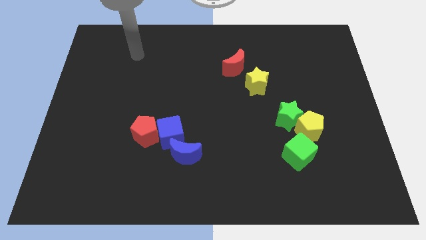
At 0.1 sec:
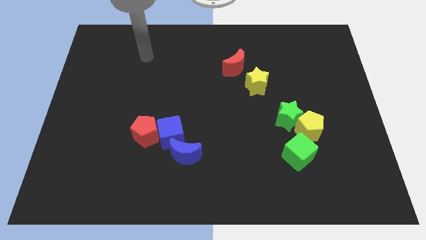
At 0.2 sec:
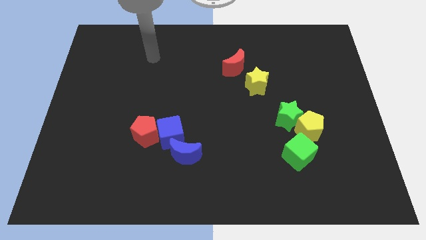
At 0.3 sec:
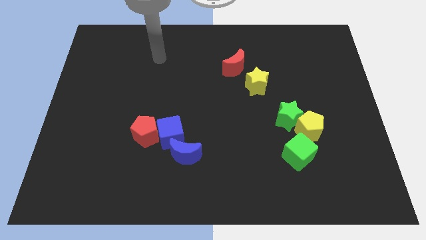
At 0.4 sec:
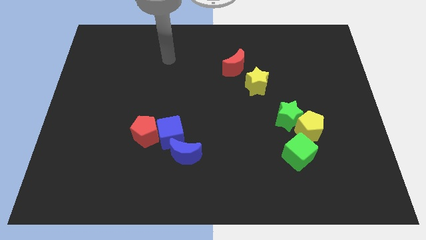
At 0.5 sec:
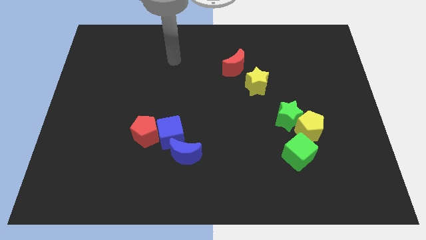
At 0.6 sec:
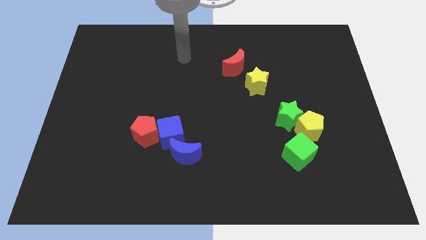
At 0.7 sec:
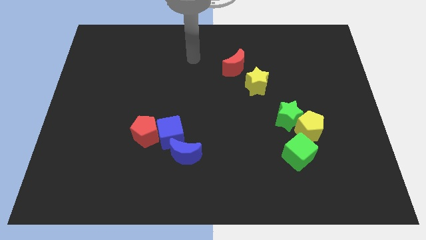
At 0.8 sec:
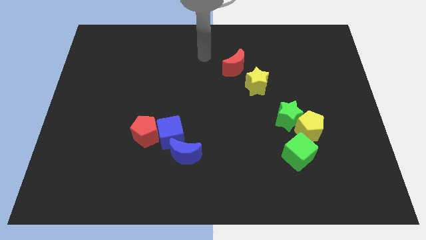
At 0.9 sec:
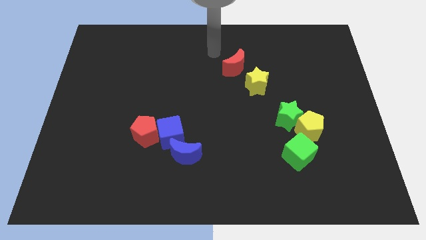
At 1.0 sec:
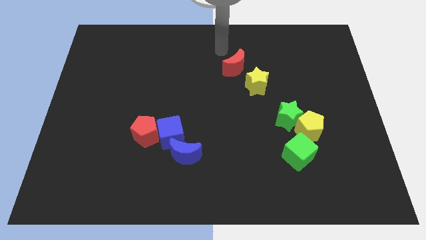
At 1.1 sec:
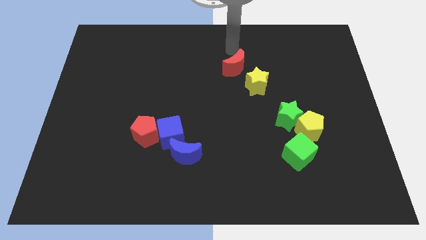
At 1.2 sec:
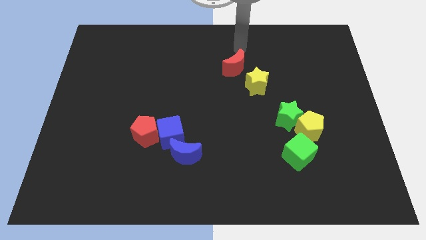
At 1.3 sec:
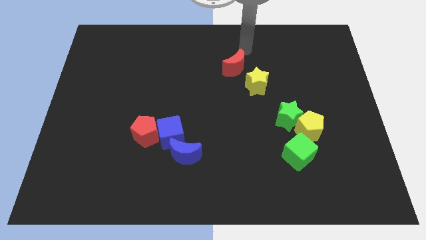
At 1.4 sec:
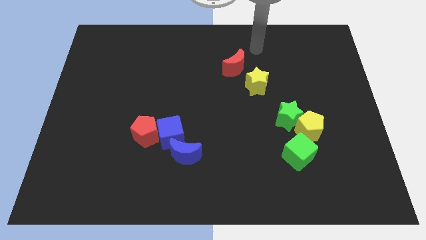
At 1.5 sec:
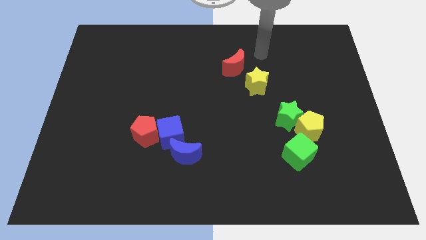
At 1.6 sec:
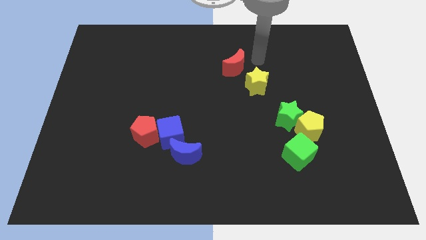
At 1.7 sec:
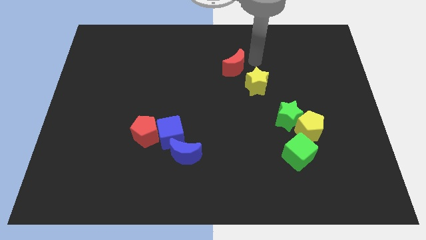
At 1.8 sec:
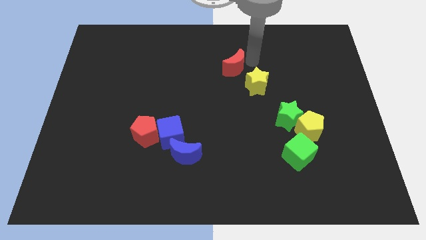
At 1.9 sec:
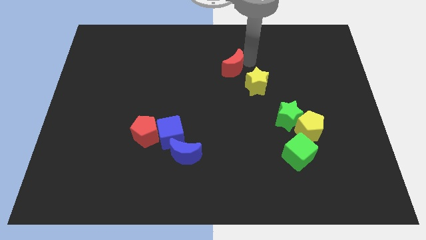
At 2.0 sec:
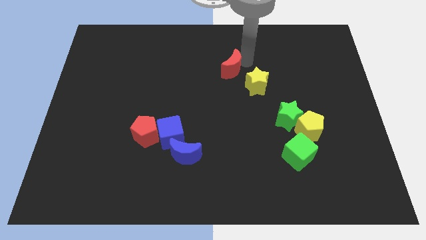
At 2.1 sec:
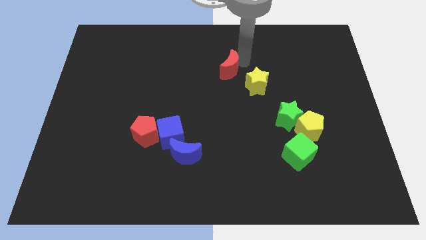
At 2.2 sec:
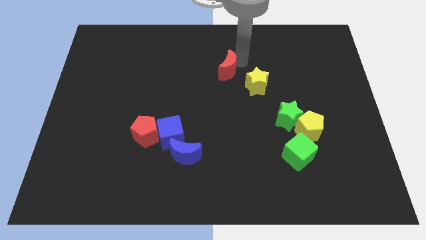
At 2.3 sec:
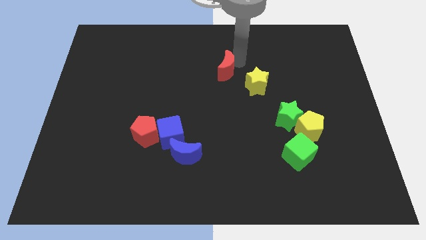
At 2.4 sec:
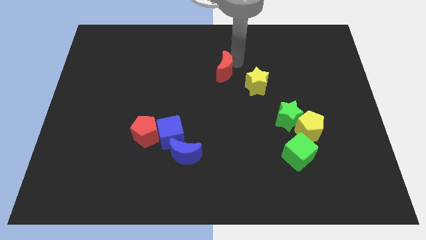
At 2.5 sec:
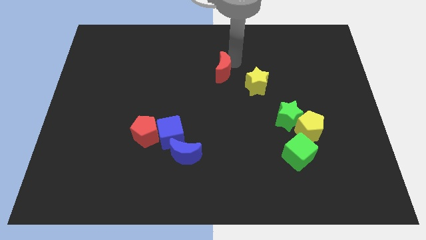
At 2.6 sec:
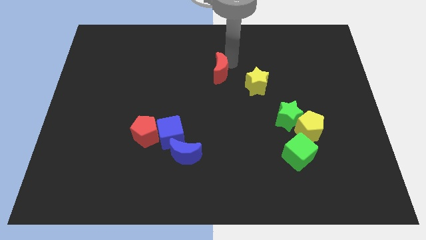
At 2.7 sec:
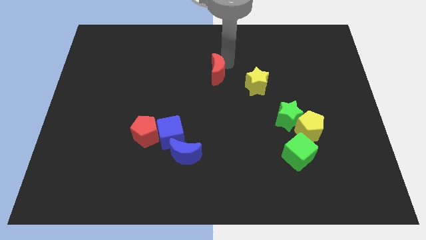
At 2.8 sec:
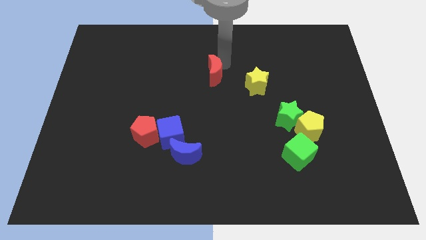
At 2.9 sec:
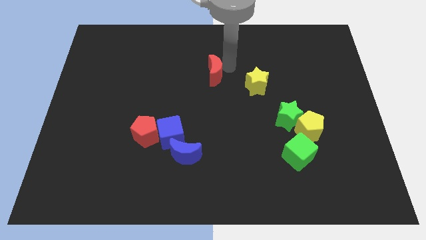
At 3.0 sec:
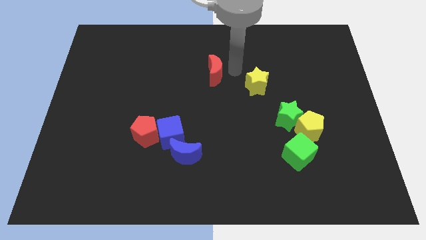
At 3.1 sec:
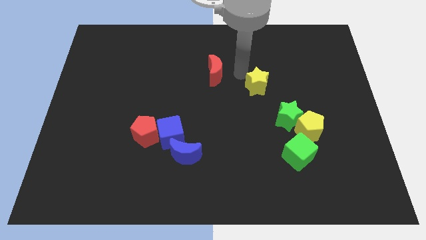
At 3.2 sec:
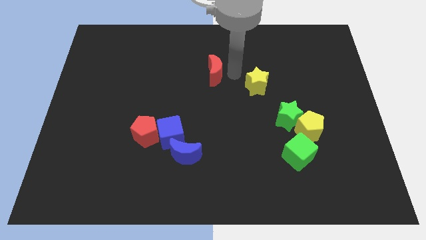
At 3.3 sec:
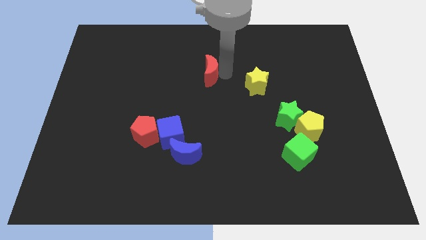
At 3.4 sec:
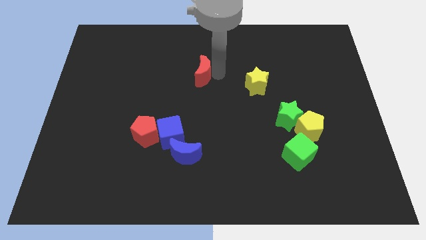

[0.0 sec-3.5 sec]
slightly slide the red moon to the left

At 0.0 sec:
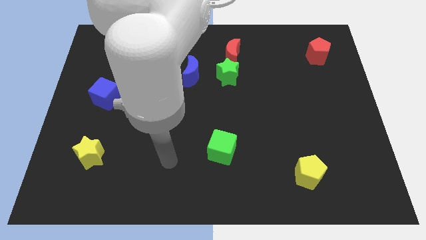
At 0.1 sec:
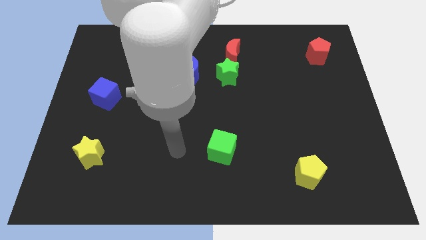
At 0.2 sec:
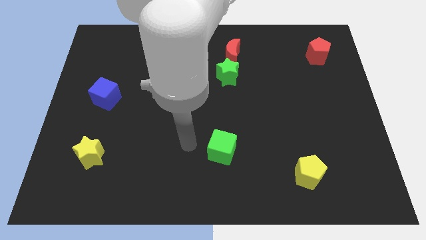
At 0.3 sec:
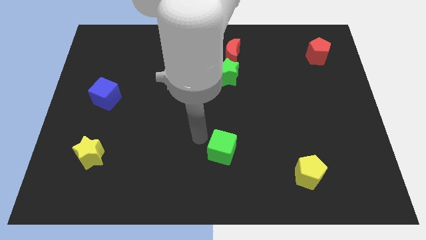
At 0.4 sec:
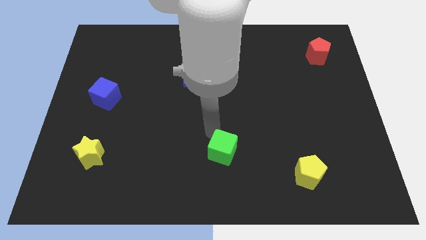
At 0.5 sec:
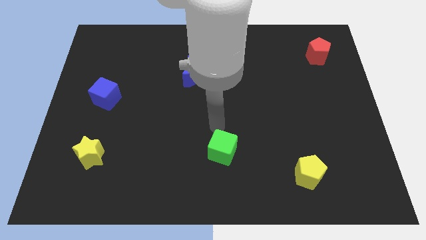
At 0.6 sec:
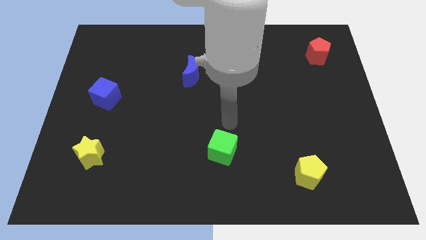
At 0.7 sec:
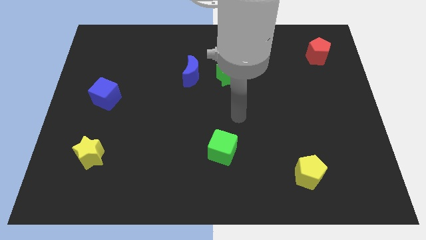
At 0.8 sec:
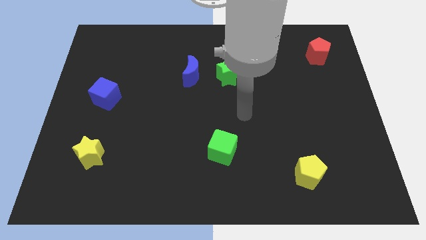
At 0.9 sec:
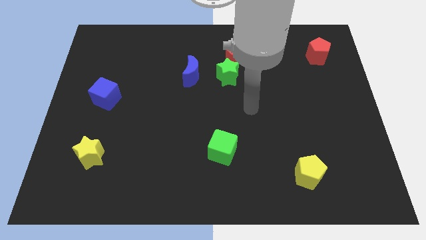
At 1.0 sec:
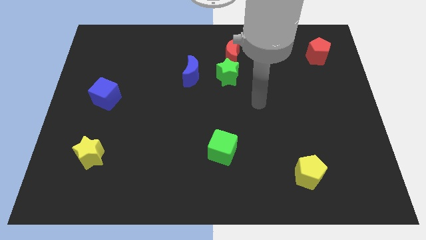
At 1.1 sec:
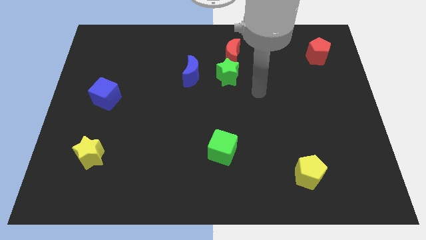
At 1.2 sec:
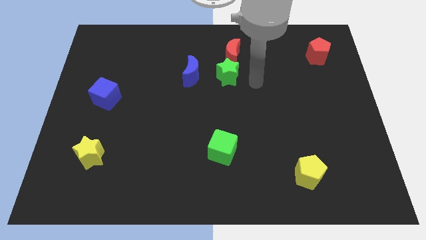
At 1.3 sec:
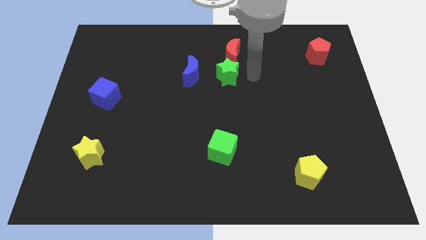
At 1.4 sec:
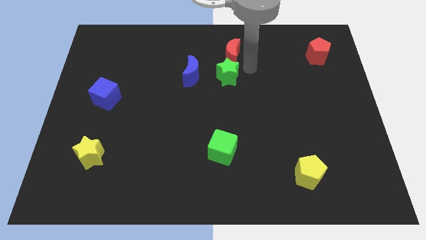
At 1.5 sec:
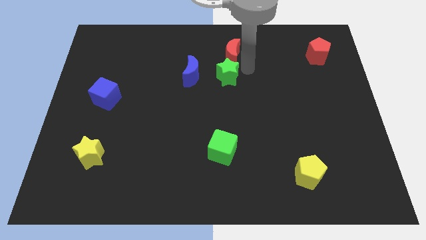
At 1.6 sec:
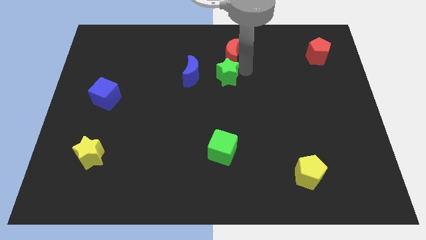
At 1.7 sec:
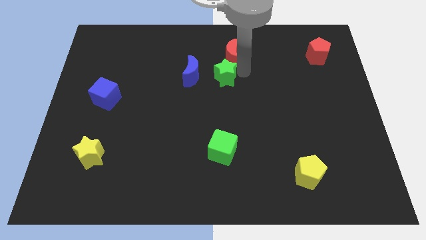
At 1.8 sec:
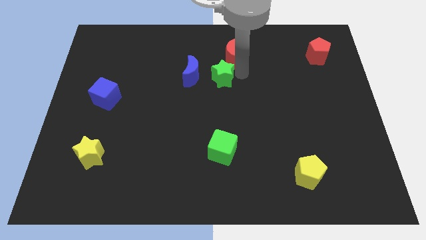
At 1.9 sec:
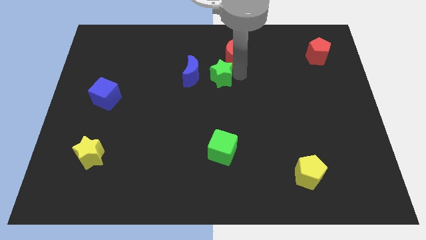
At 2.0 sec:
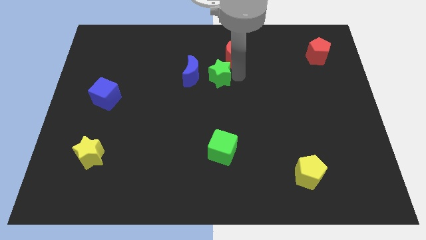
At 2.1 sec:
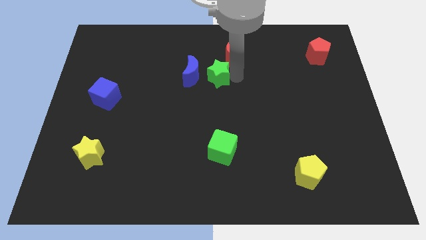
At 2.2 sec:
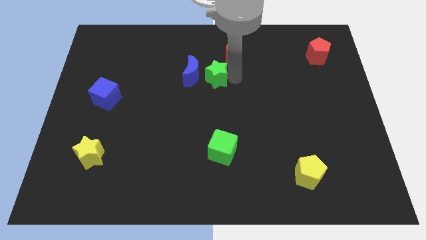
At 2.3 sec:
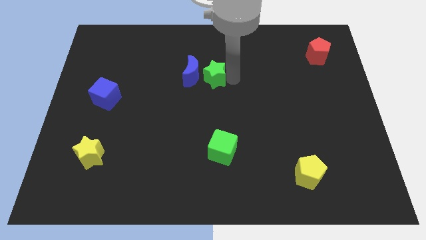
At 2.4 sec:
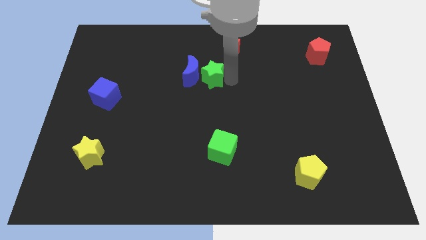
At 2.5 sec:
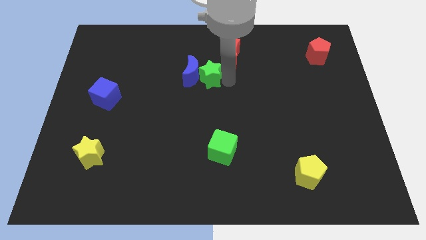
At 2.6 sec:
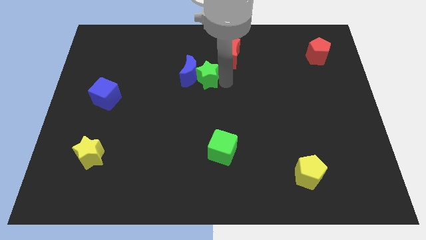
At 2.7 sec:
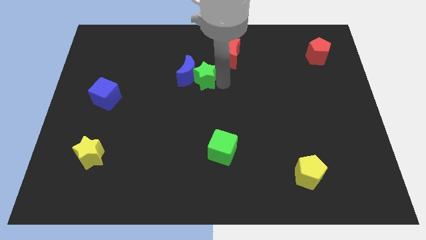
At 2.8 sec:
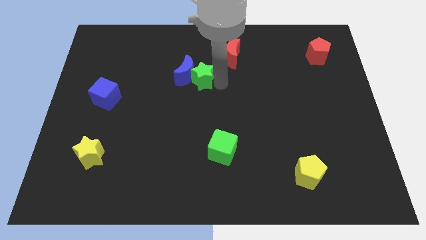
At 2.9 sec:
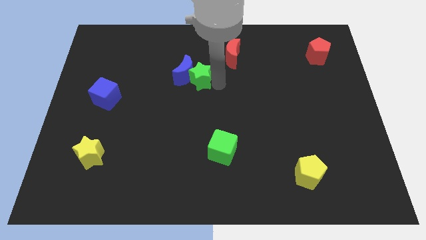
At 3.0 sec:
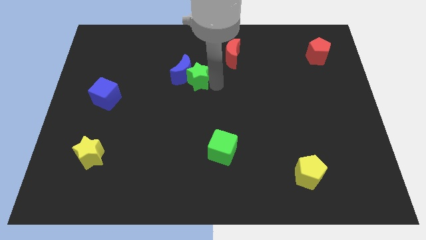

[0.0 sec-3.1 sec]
slightly slide the green star left

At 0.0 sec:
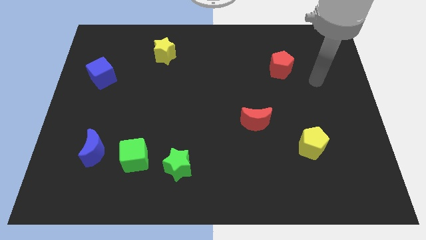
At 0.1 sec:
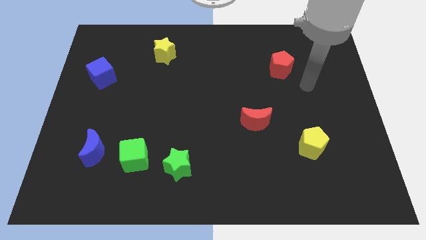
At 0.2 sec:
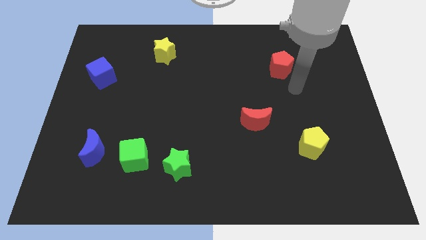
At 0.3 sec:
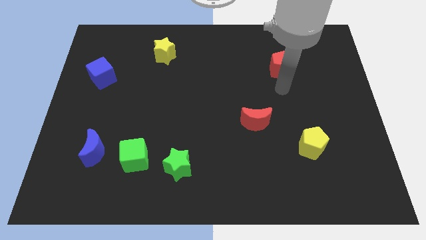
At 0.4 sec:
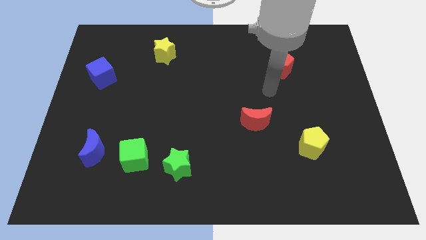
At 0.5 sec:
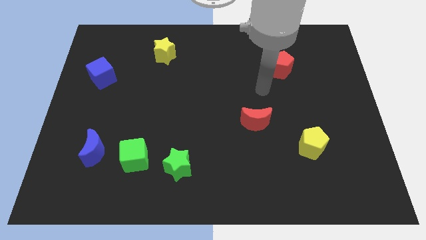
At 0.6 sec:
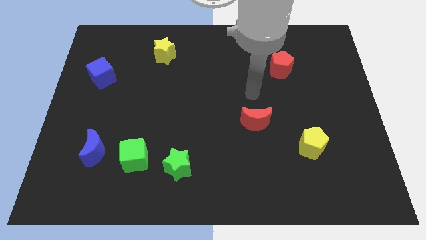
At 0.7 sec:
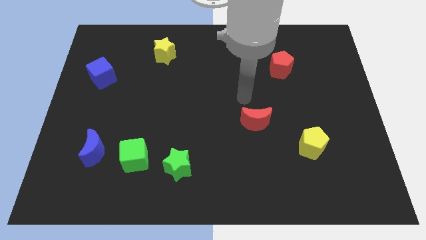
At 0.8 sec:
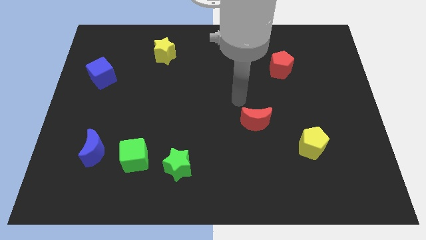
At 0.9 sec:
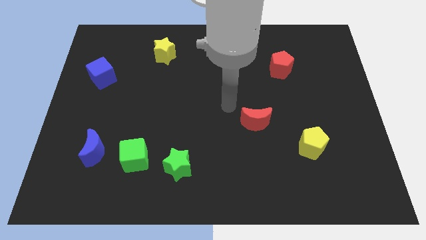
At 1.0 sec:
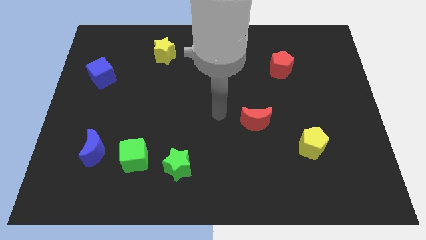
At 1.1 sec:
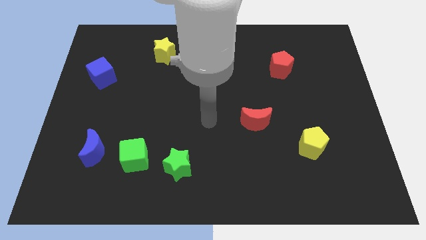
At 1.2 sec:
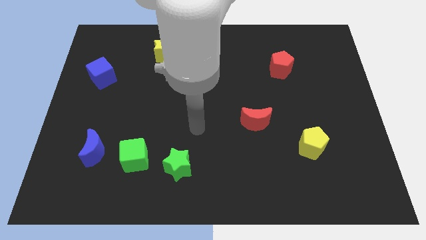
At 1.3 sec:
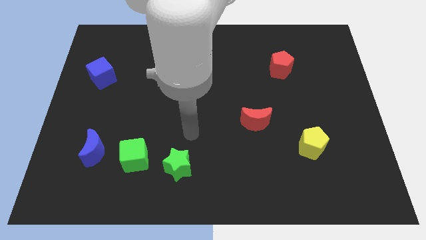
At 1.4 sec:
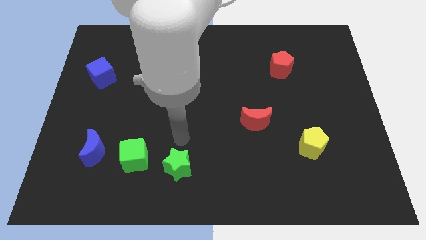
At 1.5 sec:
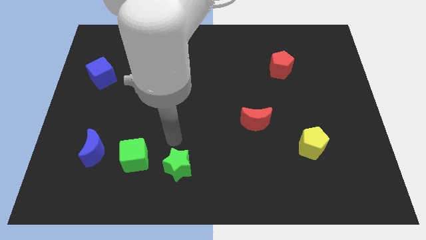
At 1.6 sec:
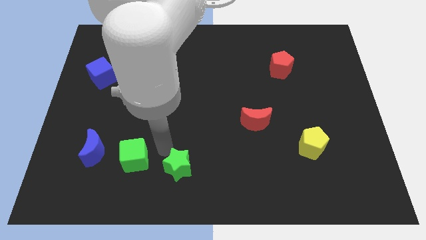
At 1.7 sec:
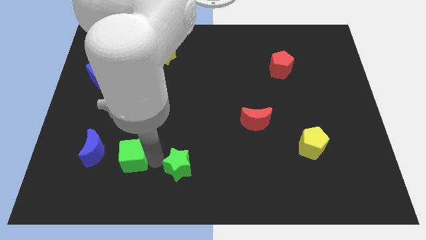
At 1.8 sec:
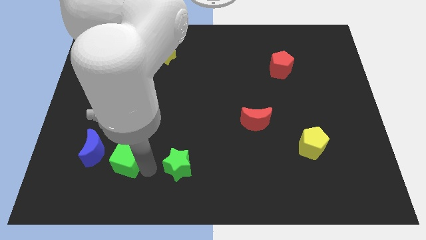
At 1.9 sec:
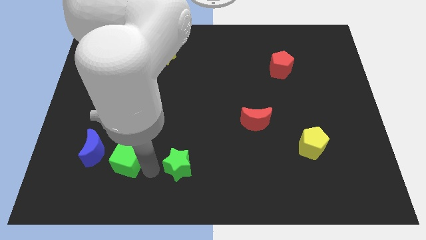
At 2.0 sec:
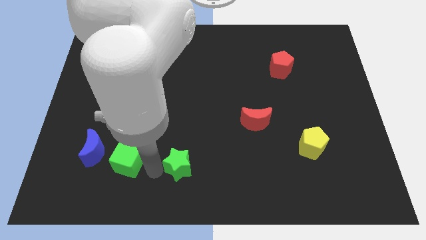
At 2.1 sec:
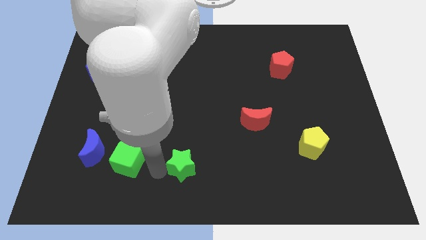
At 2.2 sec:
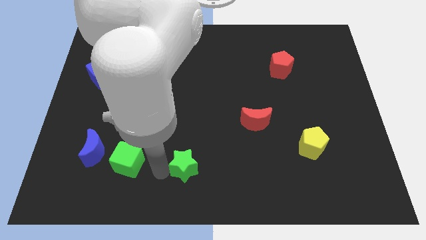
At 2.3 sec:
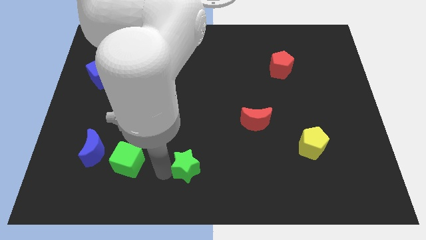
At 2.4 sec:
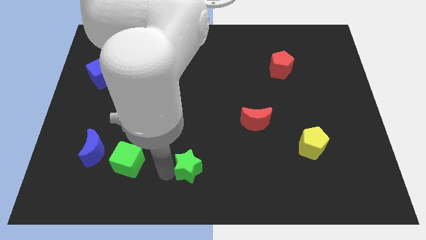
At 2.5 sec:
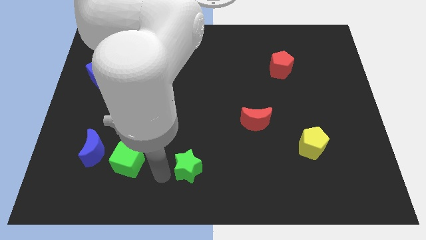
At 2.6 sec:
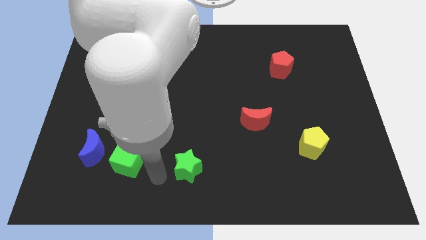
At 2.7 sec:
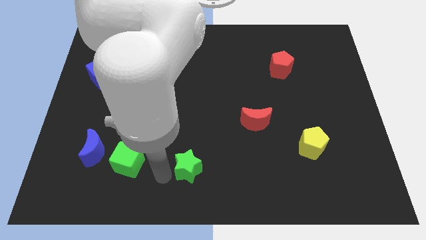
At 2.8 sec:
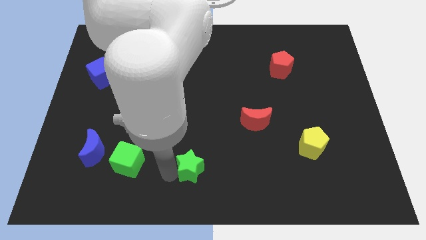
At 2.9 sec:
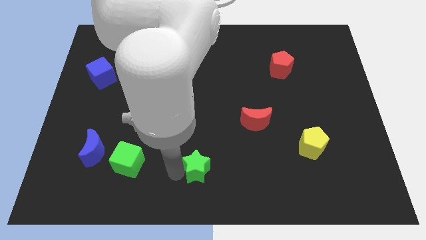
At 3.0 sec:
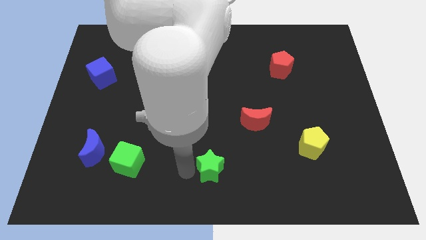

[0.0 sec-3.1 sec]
push the green star slightly right
